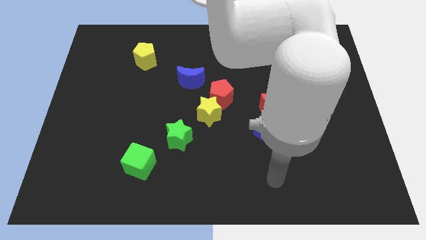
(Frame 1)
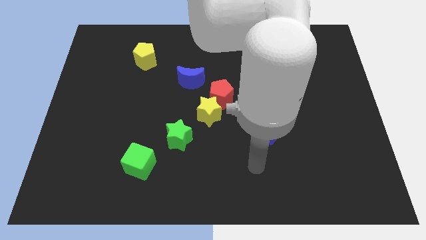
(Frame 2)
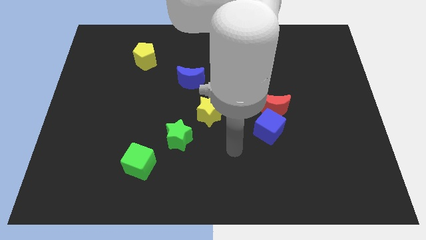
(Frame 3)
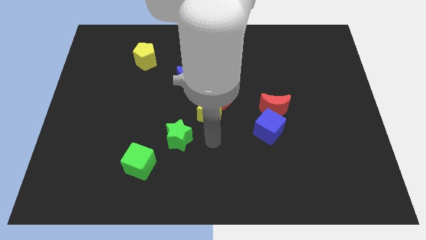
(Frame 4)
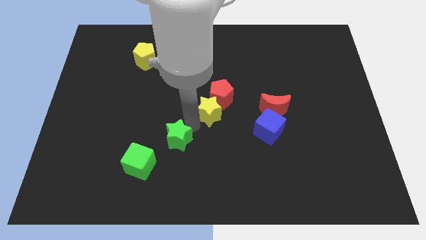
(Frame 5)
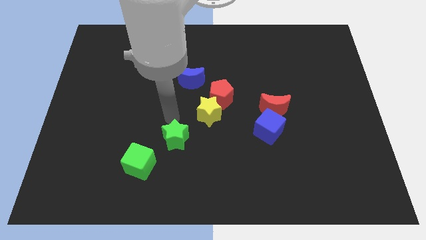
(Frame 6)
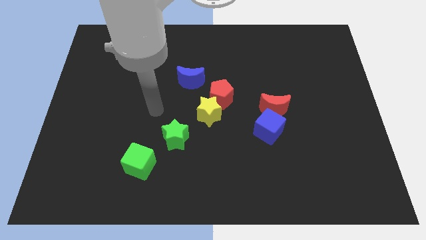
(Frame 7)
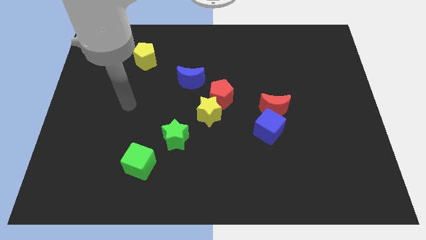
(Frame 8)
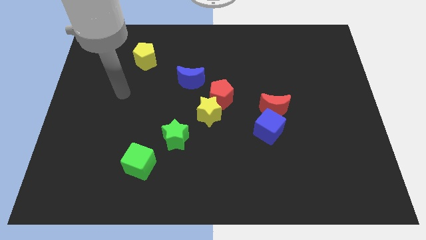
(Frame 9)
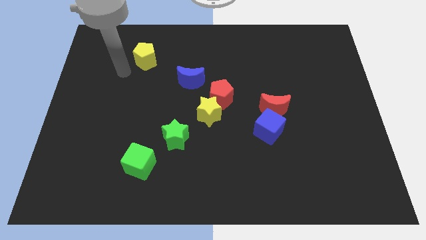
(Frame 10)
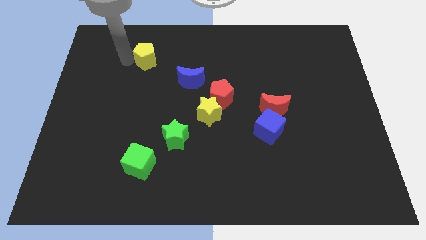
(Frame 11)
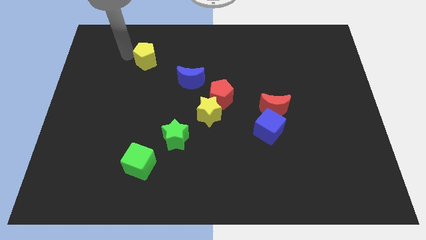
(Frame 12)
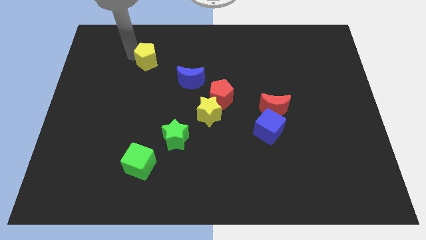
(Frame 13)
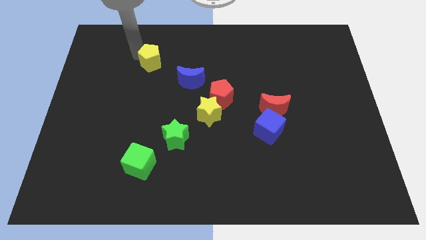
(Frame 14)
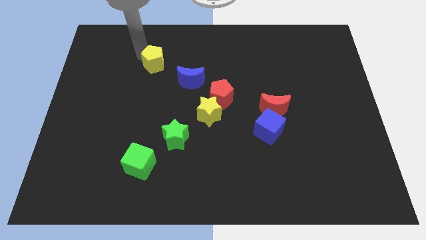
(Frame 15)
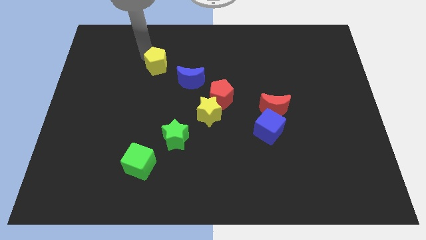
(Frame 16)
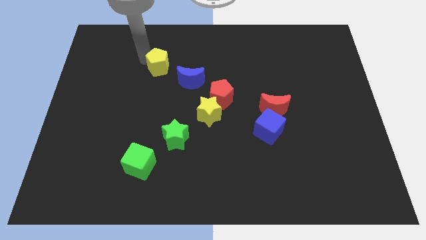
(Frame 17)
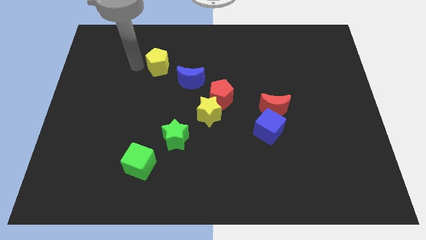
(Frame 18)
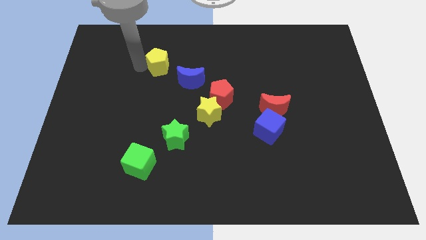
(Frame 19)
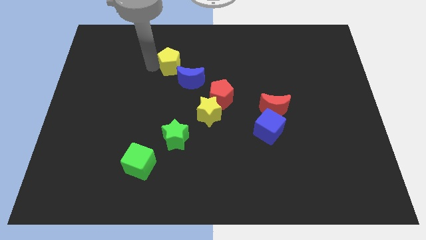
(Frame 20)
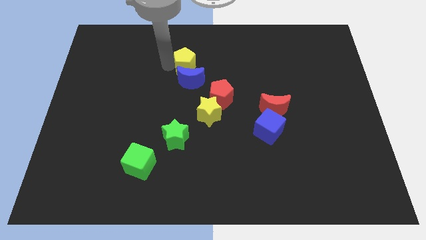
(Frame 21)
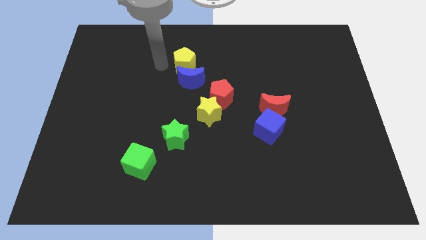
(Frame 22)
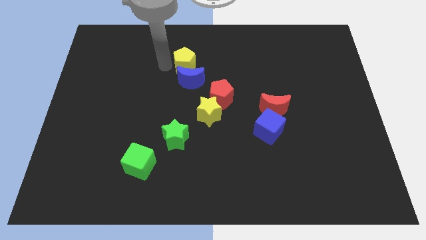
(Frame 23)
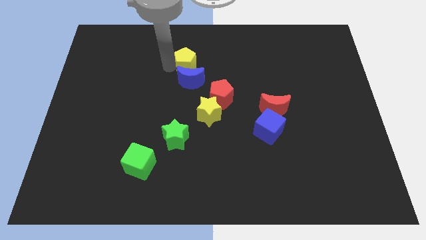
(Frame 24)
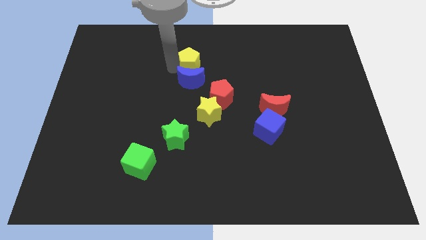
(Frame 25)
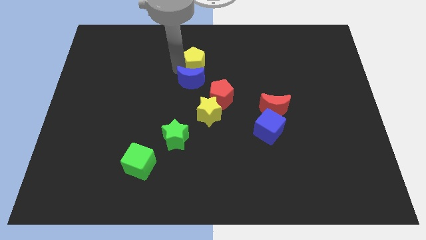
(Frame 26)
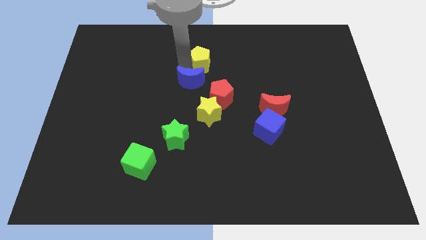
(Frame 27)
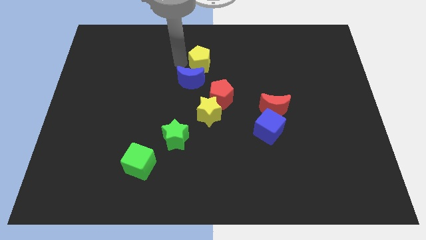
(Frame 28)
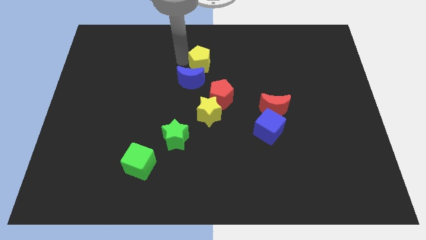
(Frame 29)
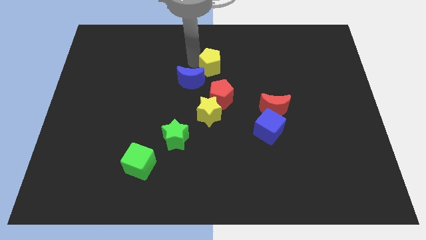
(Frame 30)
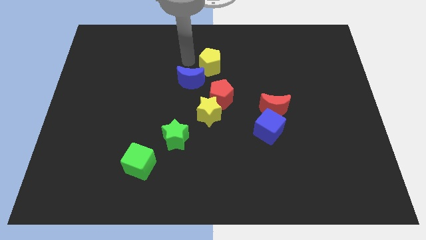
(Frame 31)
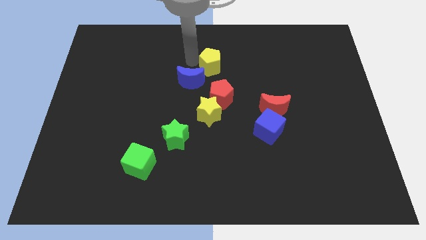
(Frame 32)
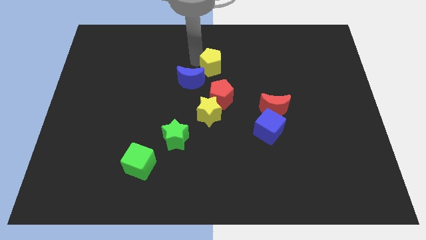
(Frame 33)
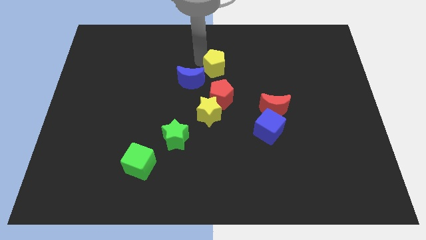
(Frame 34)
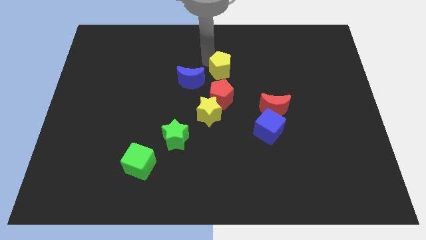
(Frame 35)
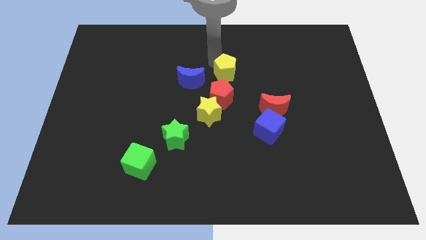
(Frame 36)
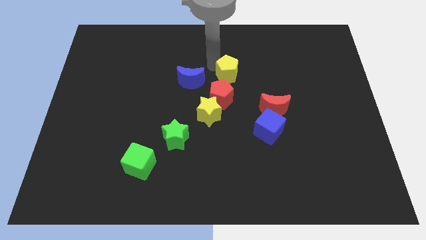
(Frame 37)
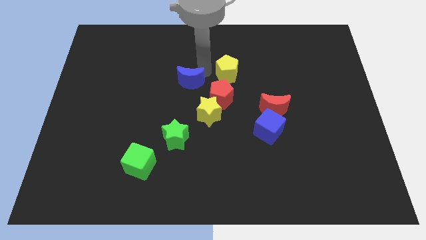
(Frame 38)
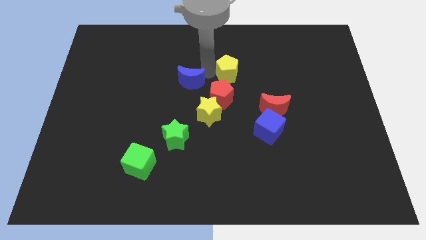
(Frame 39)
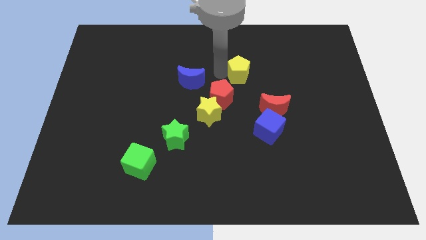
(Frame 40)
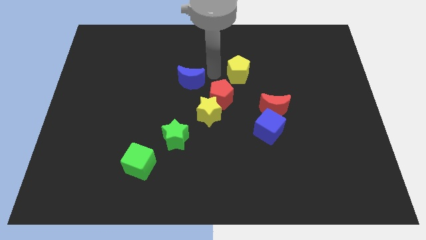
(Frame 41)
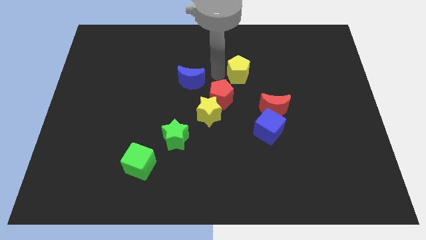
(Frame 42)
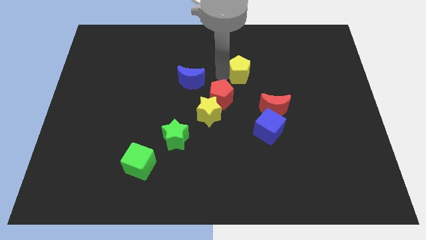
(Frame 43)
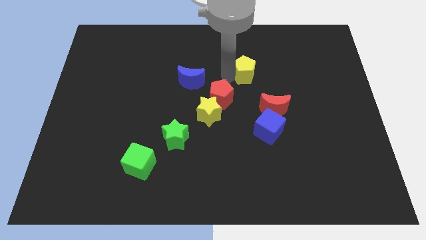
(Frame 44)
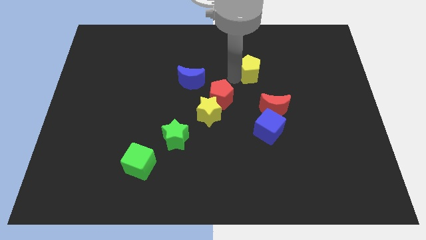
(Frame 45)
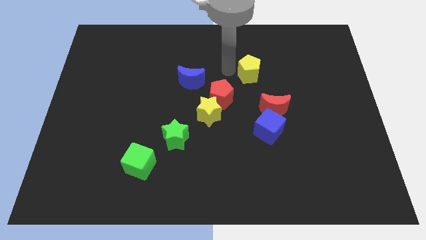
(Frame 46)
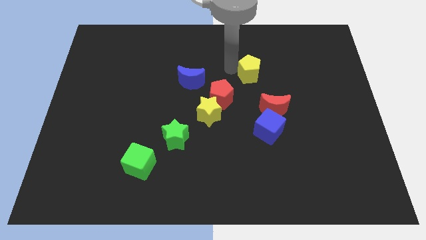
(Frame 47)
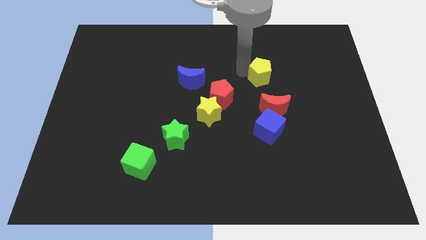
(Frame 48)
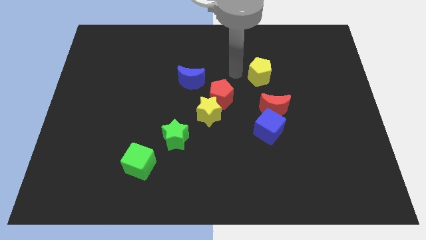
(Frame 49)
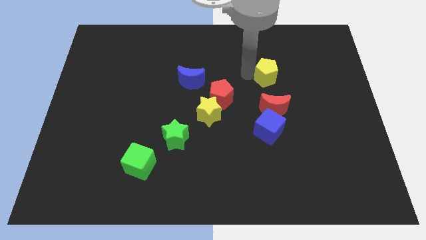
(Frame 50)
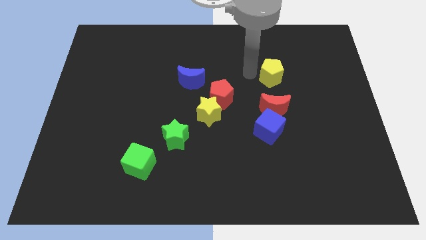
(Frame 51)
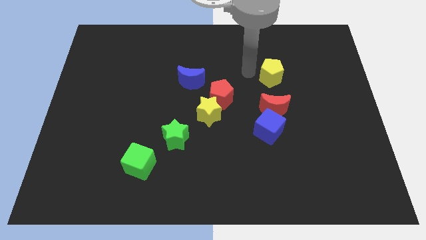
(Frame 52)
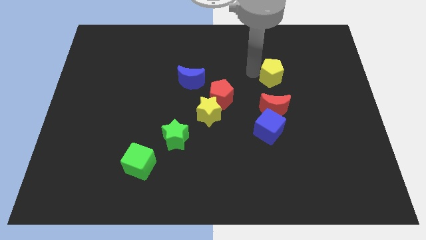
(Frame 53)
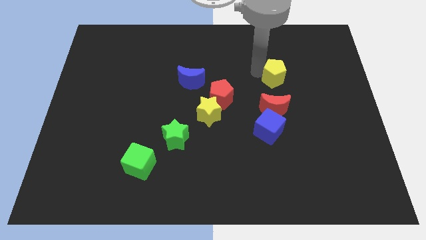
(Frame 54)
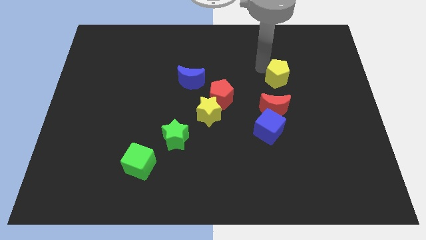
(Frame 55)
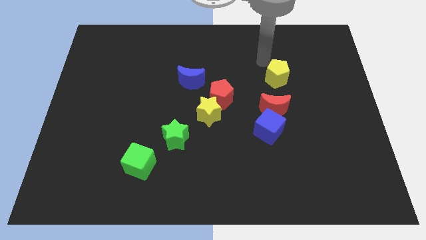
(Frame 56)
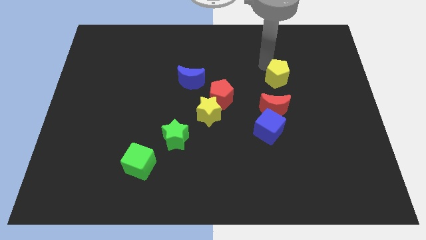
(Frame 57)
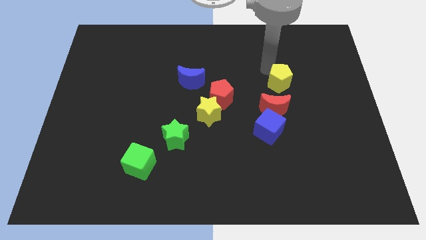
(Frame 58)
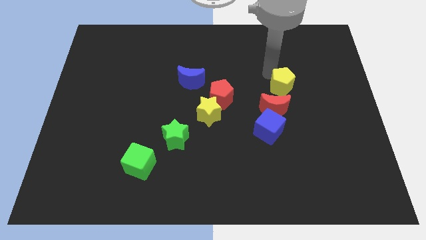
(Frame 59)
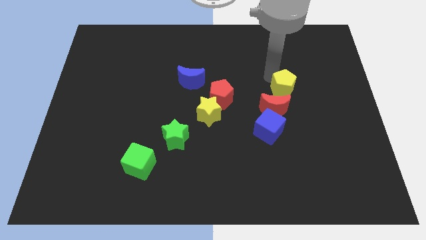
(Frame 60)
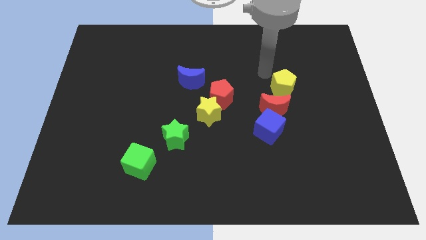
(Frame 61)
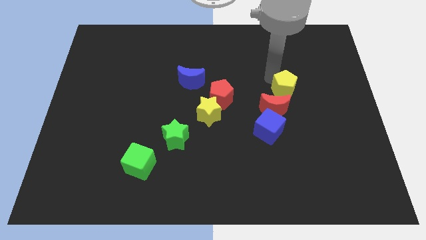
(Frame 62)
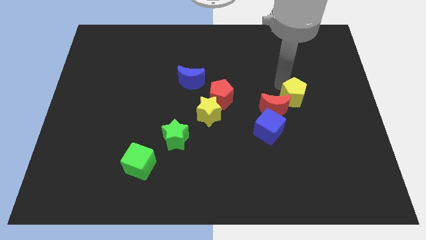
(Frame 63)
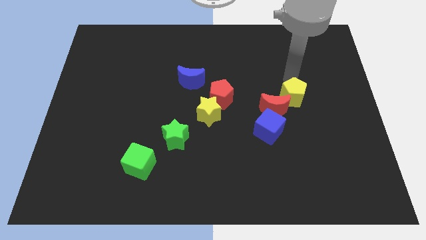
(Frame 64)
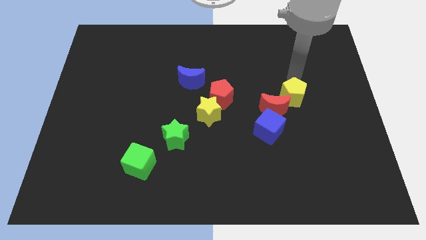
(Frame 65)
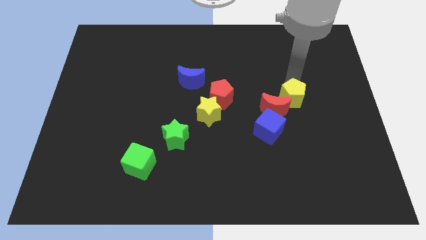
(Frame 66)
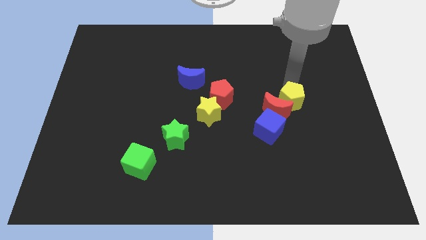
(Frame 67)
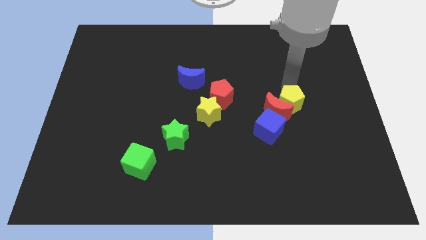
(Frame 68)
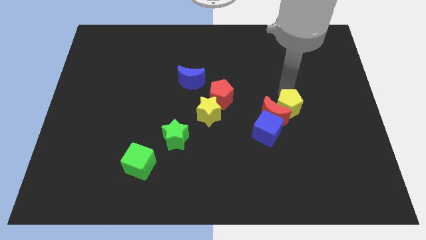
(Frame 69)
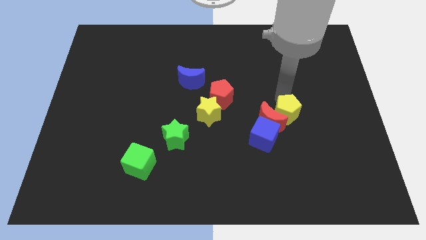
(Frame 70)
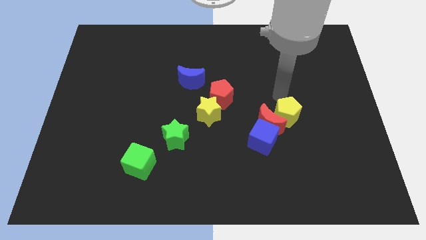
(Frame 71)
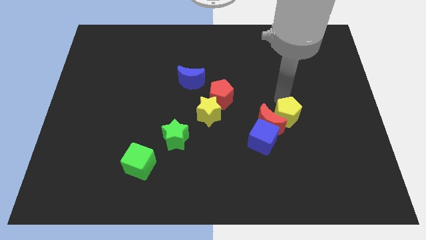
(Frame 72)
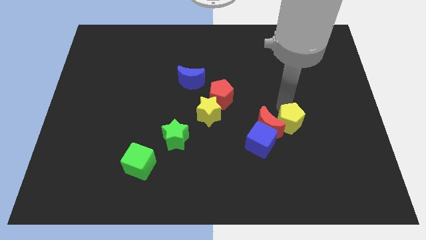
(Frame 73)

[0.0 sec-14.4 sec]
slide the yellow pentagon to the bottom right of the red moon
